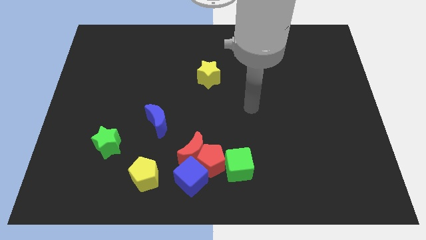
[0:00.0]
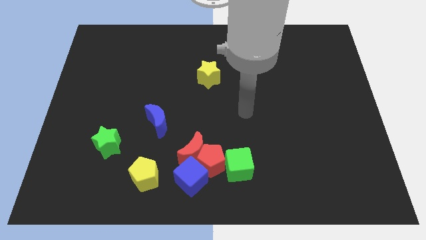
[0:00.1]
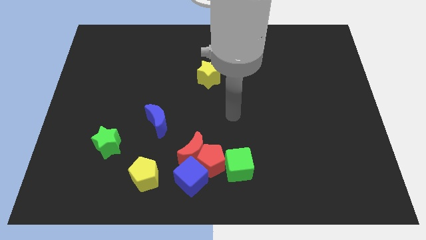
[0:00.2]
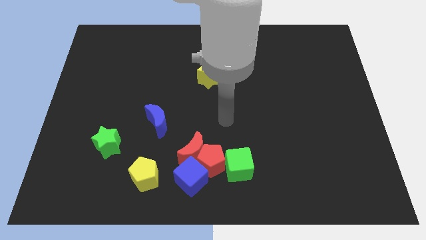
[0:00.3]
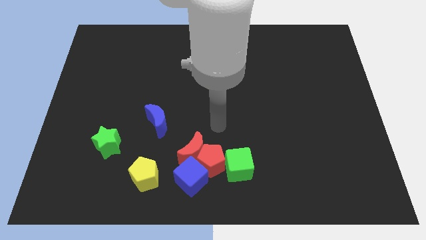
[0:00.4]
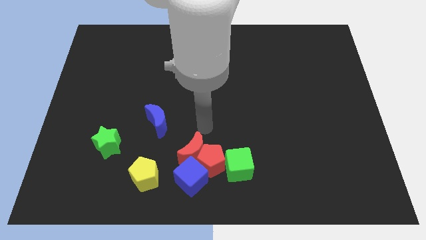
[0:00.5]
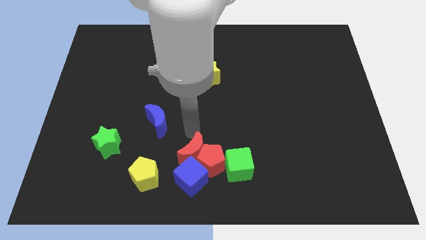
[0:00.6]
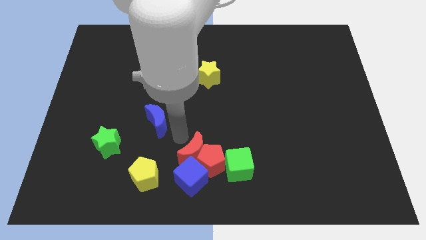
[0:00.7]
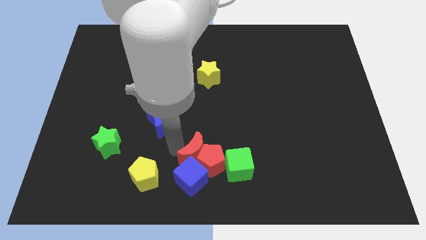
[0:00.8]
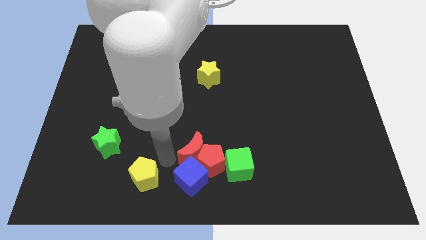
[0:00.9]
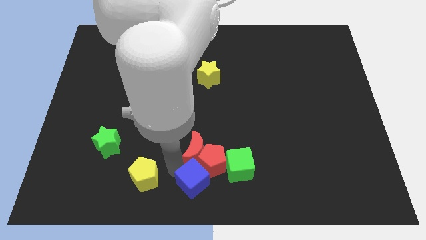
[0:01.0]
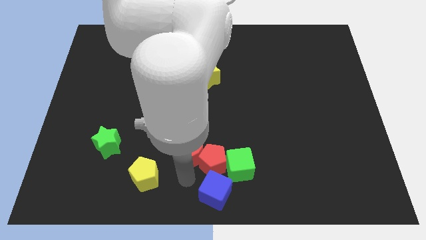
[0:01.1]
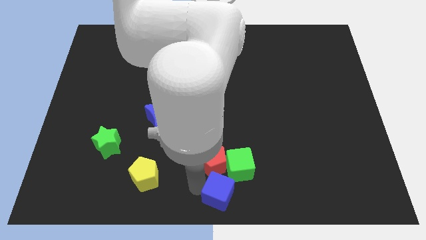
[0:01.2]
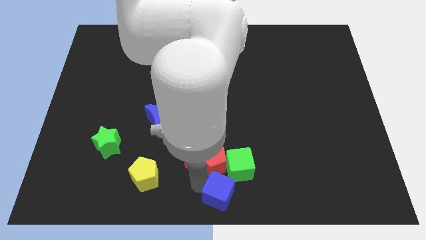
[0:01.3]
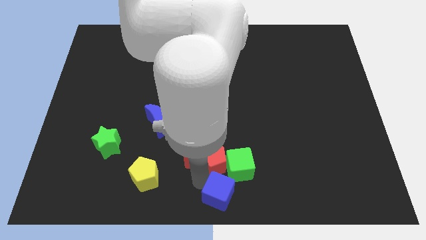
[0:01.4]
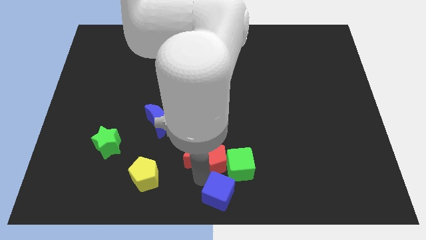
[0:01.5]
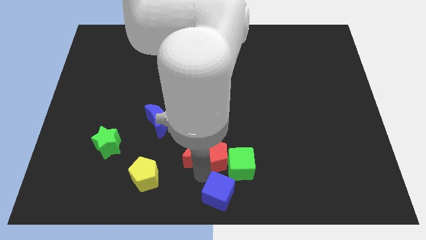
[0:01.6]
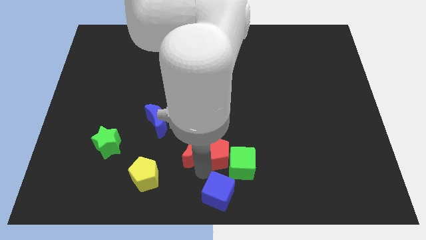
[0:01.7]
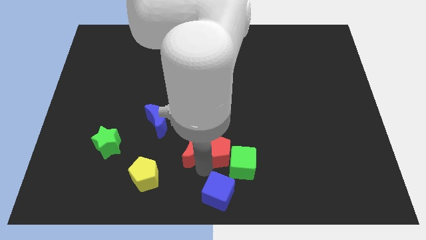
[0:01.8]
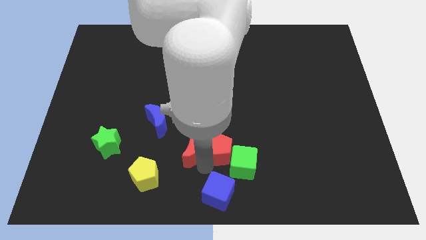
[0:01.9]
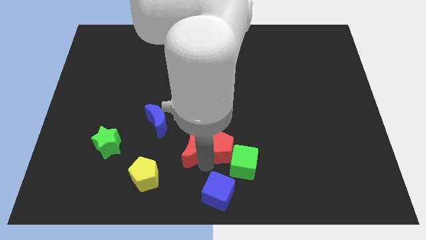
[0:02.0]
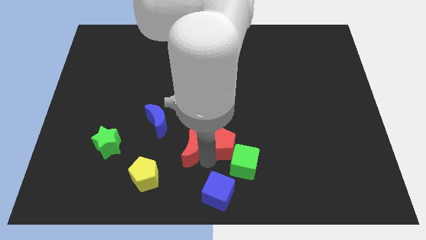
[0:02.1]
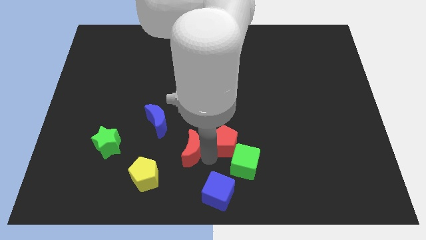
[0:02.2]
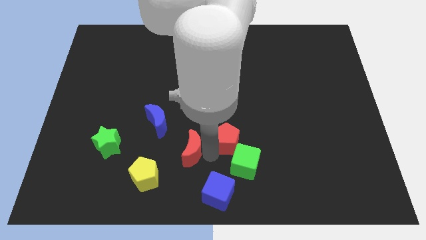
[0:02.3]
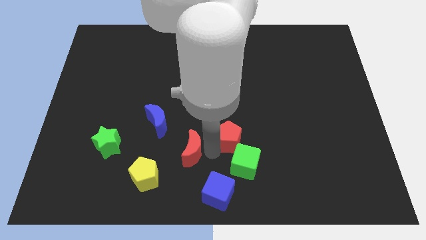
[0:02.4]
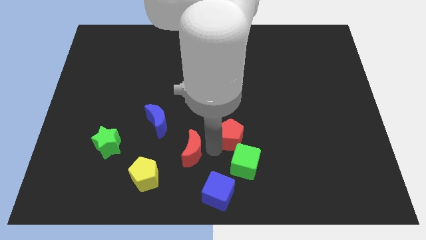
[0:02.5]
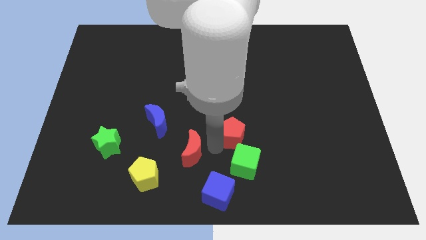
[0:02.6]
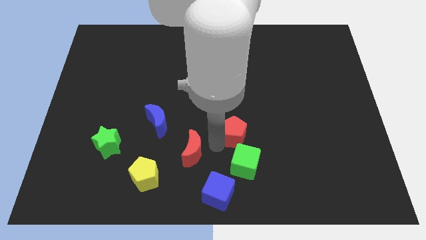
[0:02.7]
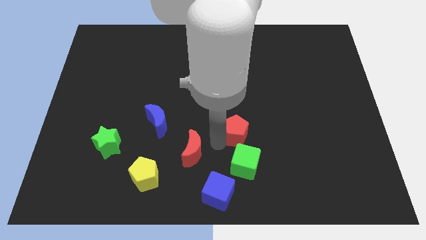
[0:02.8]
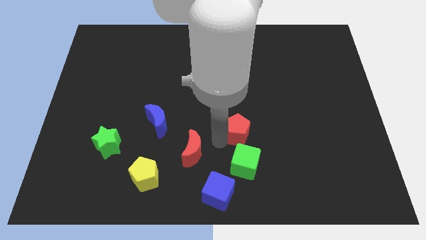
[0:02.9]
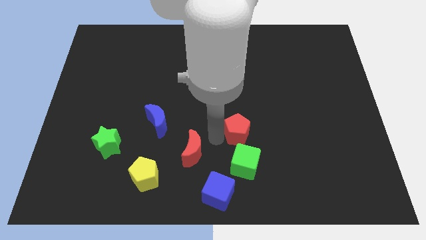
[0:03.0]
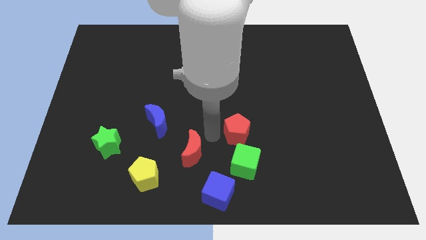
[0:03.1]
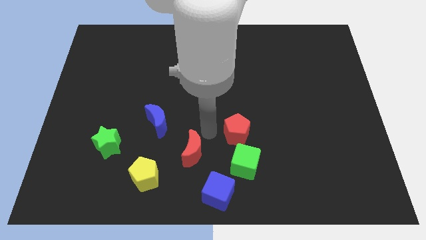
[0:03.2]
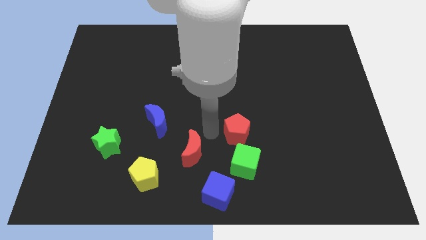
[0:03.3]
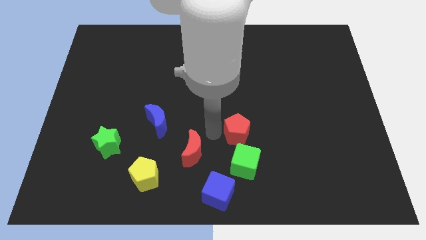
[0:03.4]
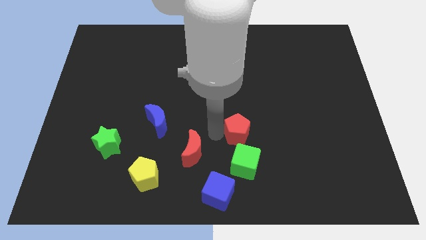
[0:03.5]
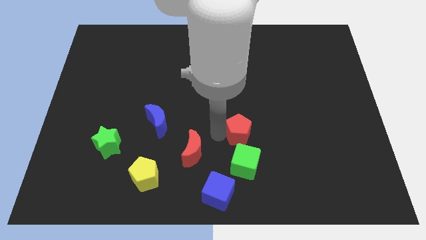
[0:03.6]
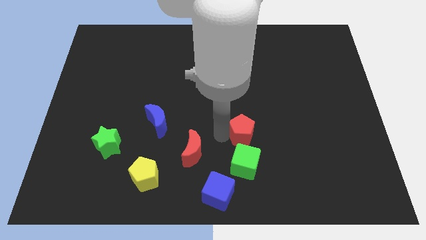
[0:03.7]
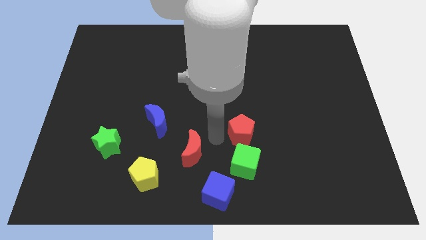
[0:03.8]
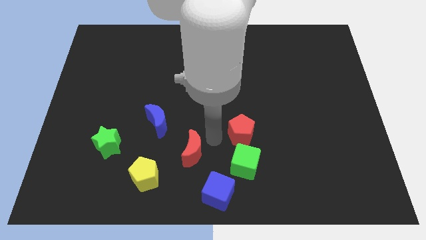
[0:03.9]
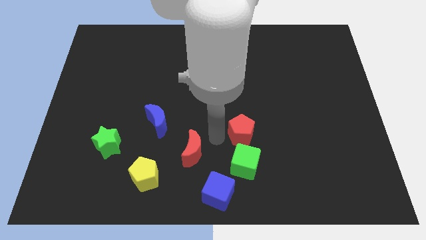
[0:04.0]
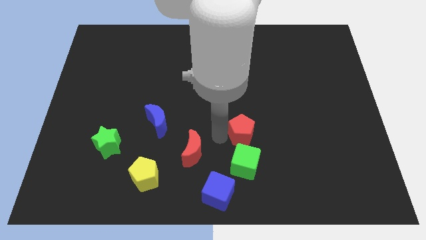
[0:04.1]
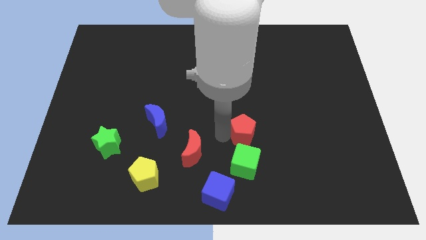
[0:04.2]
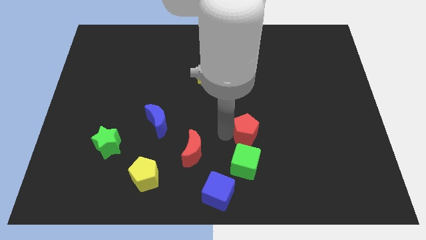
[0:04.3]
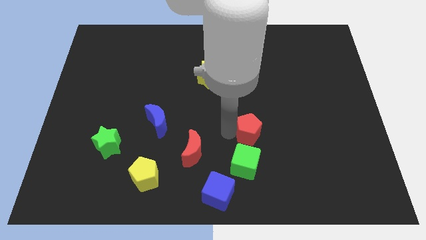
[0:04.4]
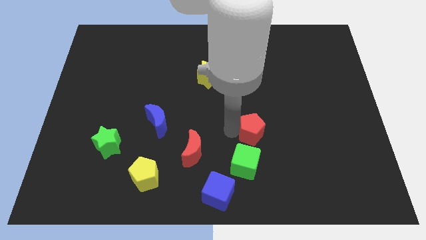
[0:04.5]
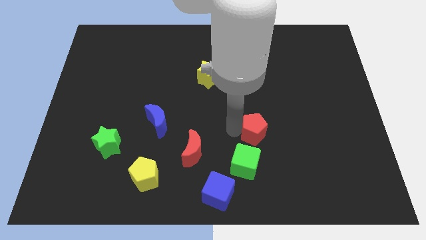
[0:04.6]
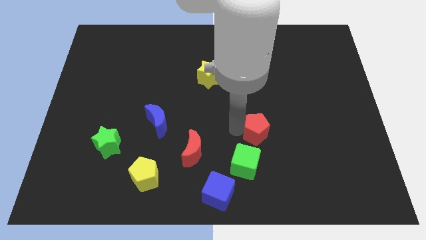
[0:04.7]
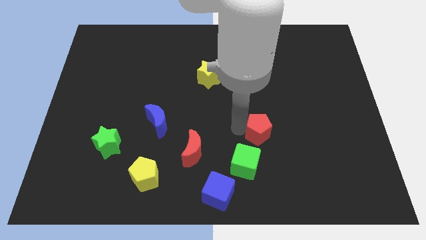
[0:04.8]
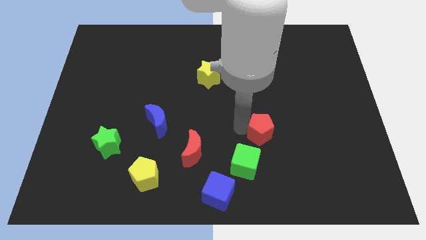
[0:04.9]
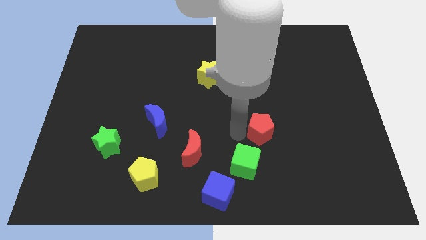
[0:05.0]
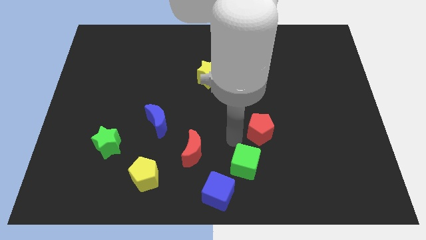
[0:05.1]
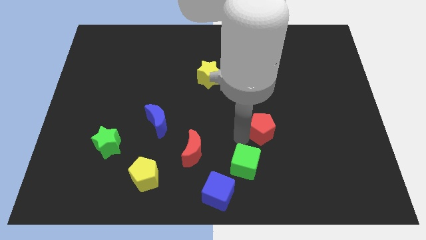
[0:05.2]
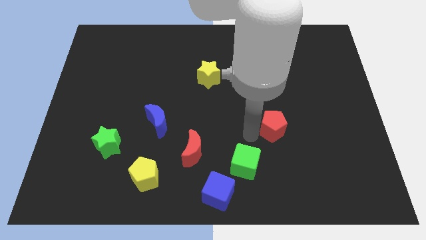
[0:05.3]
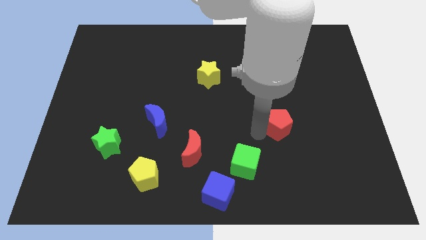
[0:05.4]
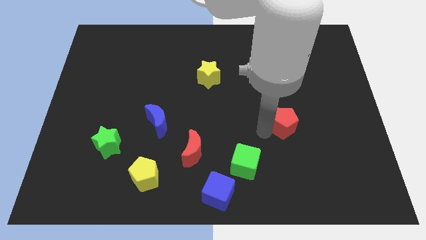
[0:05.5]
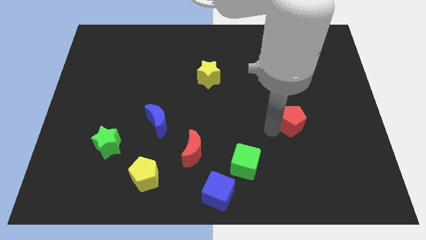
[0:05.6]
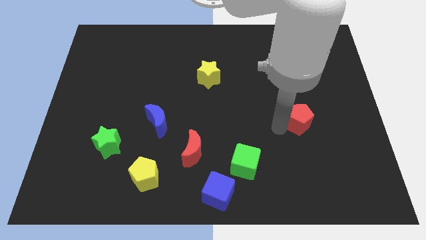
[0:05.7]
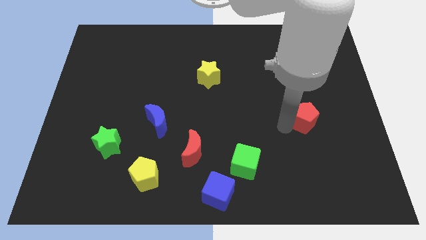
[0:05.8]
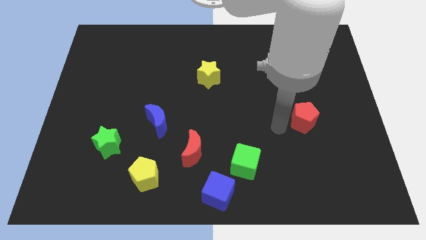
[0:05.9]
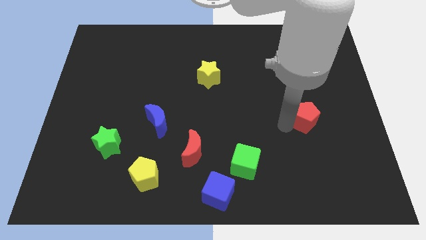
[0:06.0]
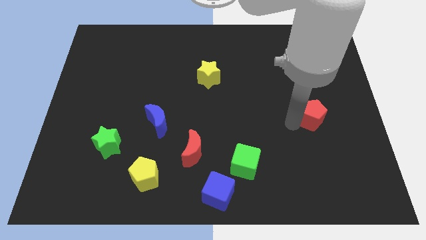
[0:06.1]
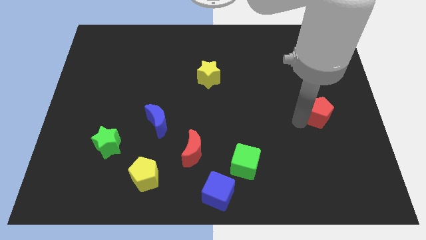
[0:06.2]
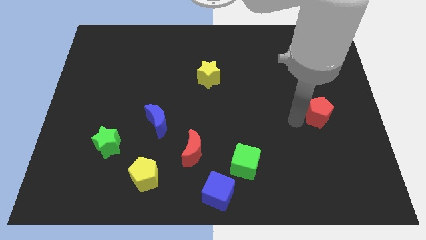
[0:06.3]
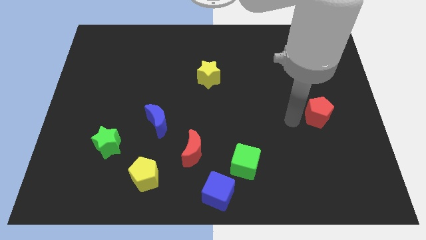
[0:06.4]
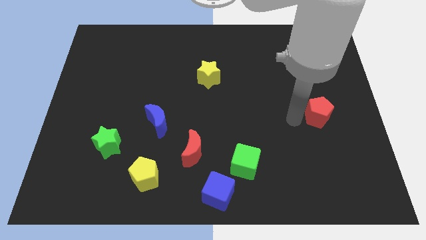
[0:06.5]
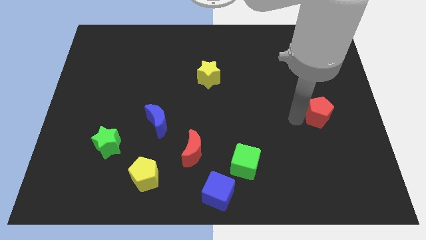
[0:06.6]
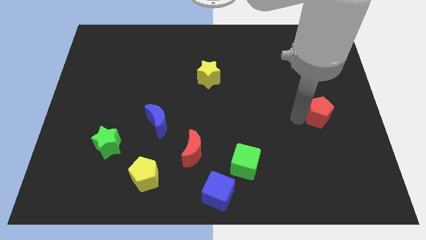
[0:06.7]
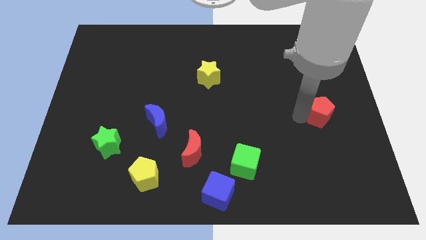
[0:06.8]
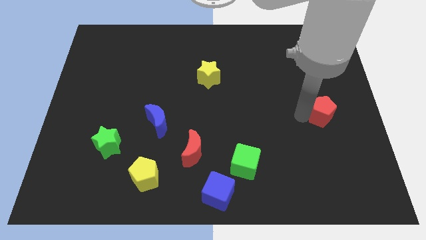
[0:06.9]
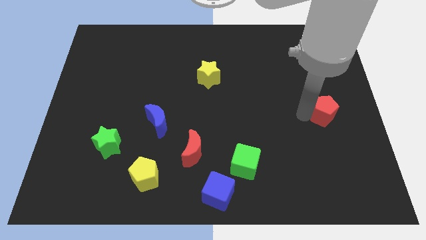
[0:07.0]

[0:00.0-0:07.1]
slide the red pentagon to the right side
